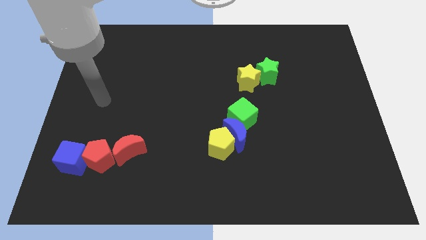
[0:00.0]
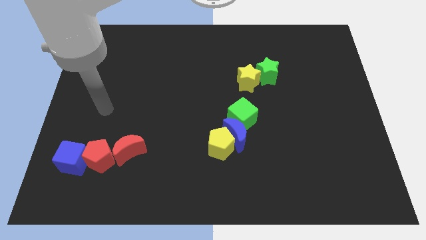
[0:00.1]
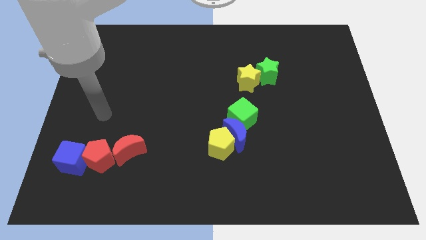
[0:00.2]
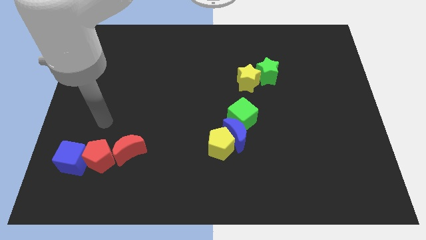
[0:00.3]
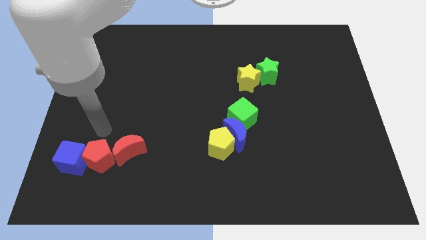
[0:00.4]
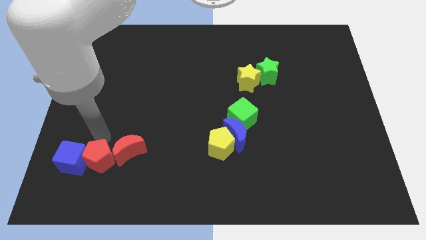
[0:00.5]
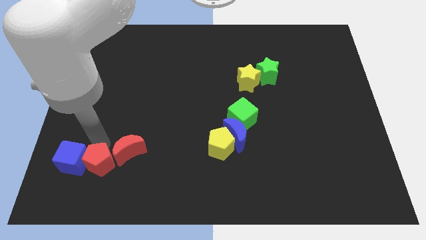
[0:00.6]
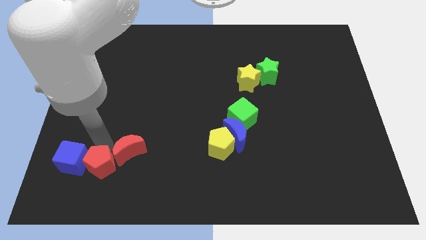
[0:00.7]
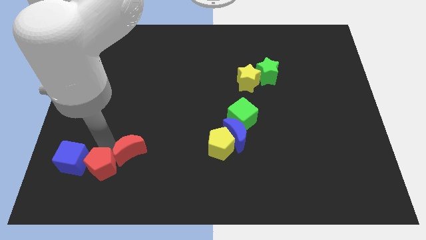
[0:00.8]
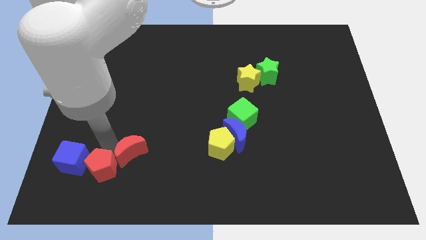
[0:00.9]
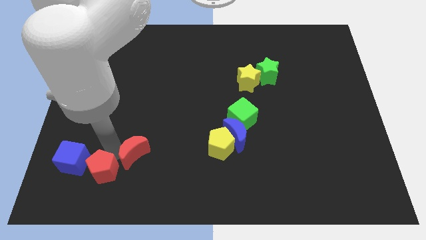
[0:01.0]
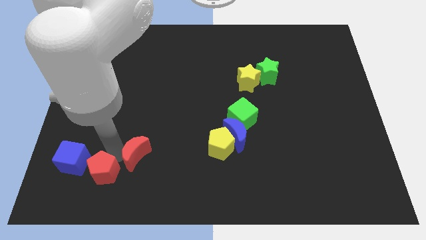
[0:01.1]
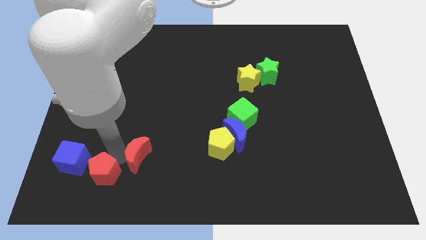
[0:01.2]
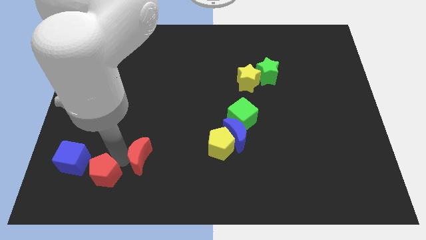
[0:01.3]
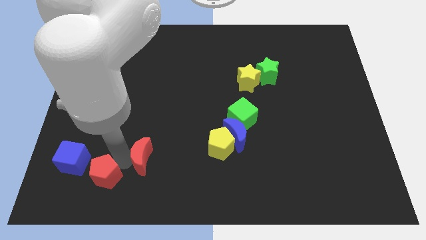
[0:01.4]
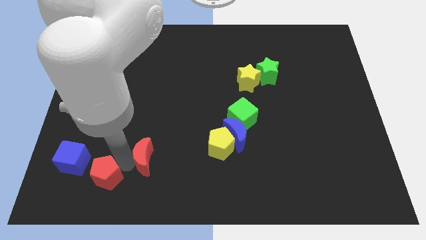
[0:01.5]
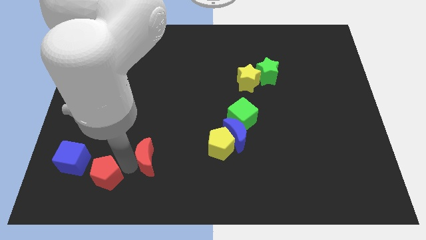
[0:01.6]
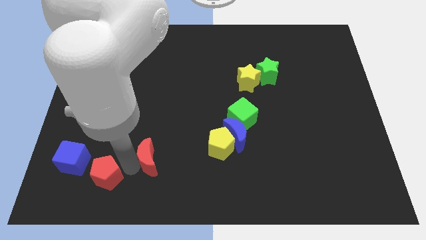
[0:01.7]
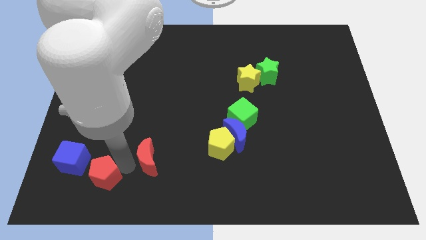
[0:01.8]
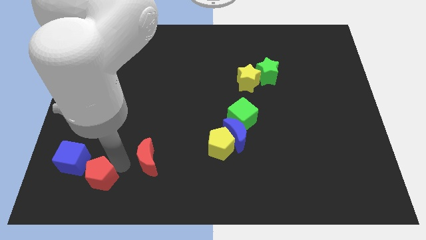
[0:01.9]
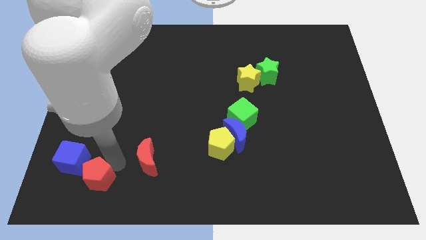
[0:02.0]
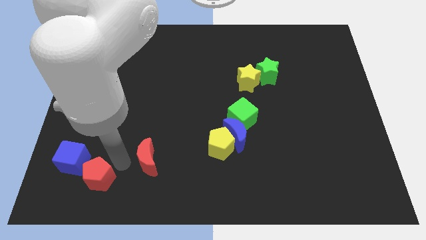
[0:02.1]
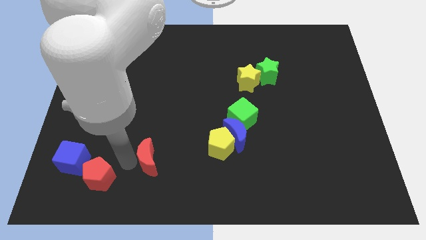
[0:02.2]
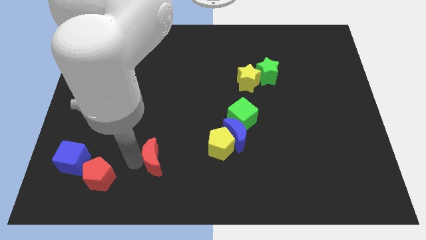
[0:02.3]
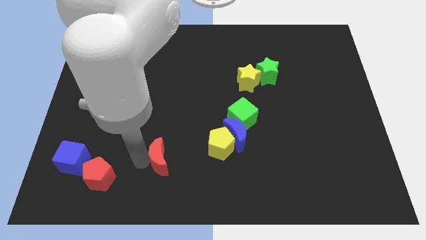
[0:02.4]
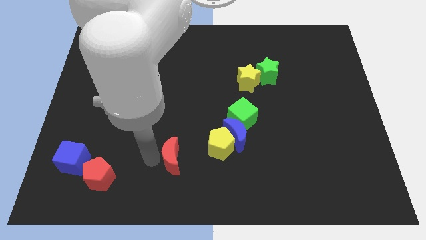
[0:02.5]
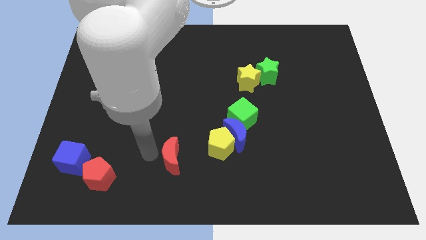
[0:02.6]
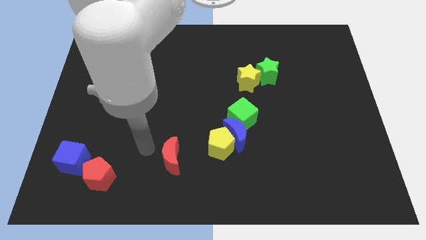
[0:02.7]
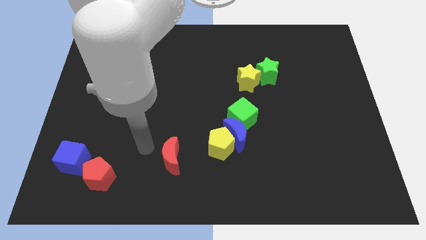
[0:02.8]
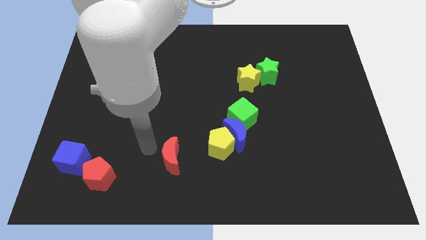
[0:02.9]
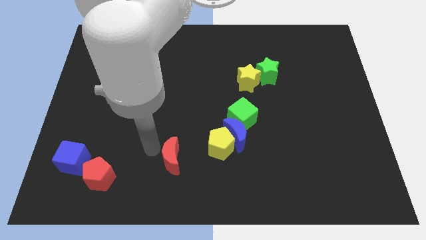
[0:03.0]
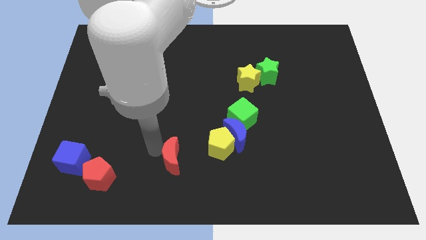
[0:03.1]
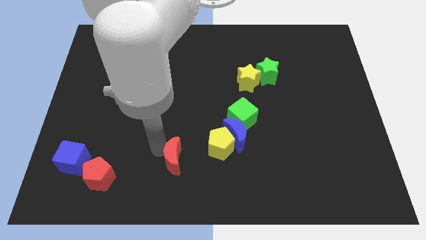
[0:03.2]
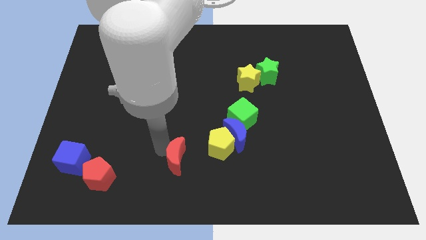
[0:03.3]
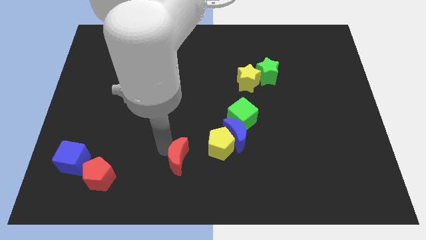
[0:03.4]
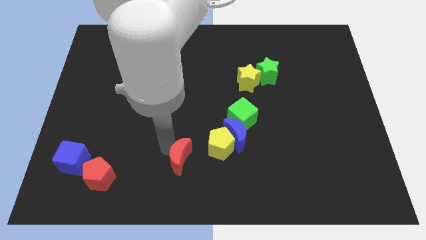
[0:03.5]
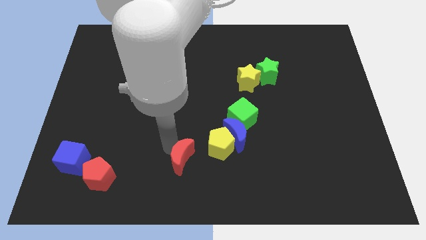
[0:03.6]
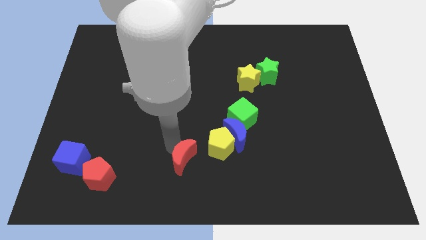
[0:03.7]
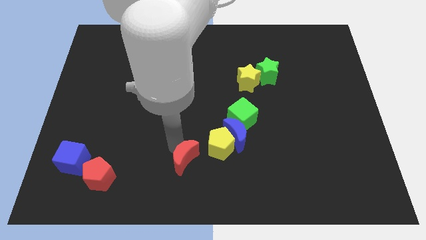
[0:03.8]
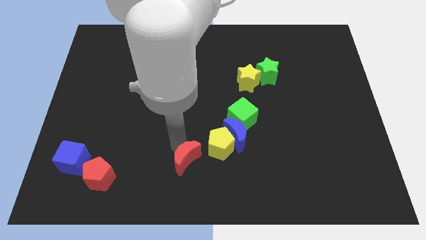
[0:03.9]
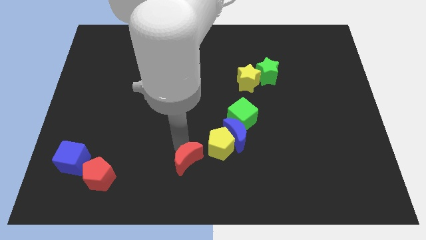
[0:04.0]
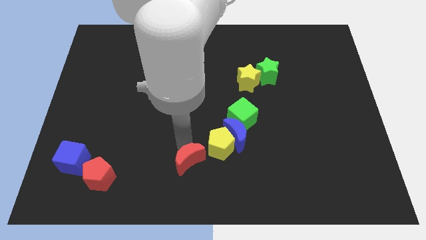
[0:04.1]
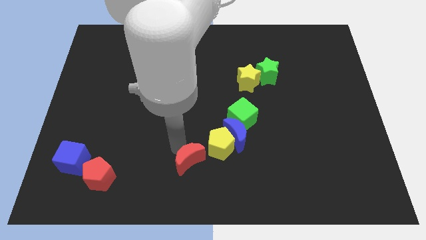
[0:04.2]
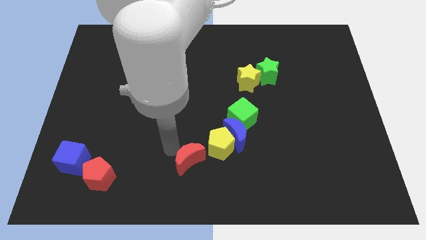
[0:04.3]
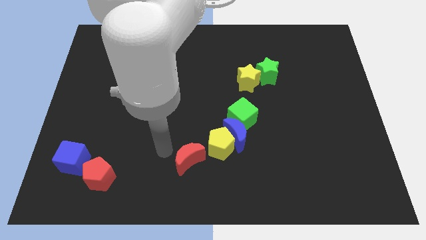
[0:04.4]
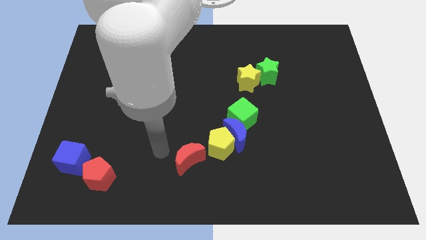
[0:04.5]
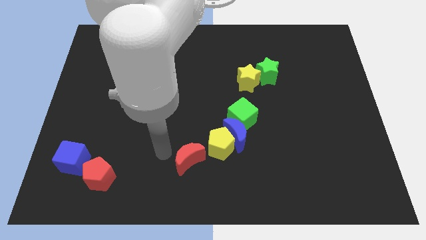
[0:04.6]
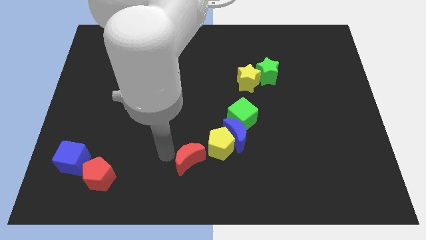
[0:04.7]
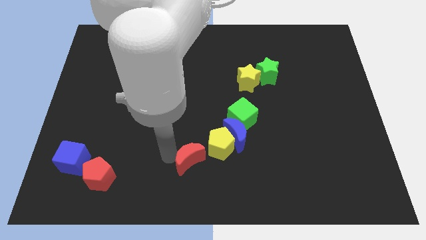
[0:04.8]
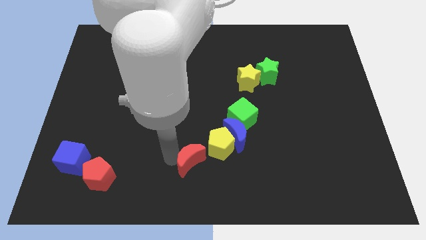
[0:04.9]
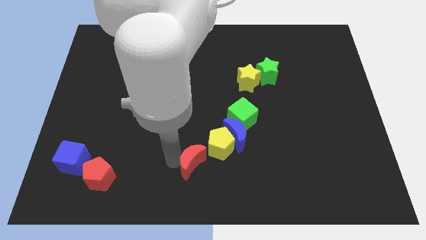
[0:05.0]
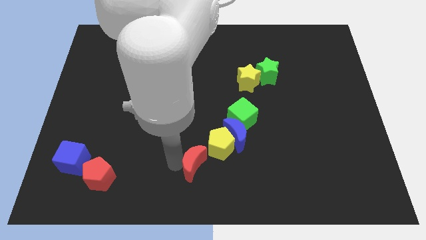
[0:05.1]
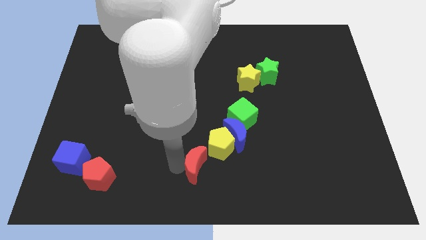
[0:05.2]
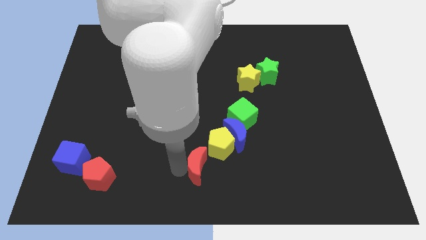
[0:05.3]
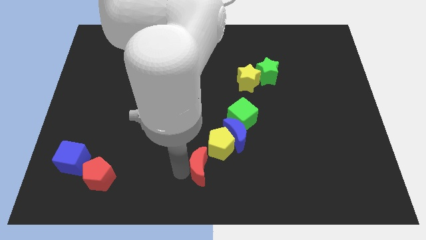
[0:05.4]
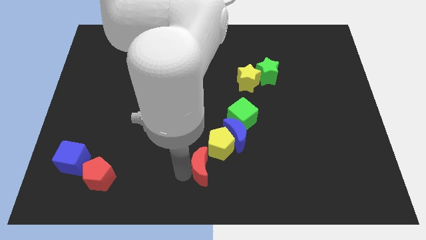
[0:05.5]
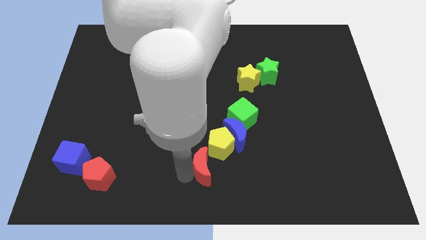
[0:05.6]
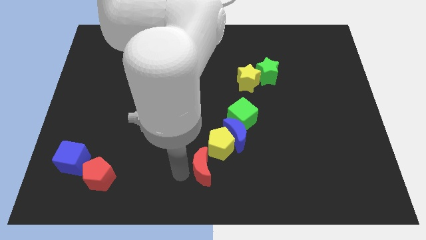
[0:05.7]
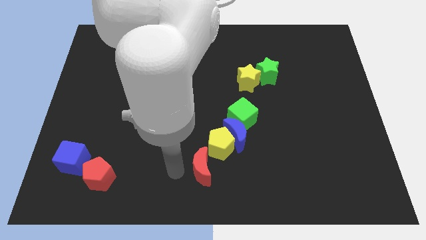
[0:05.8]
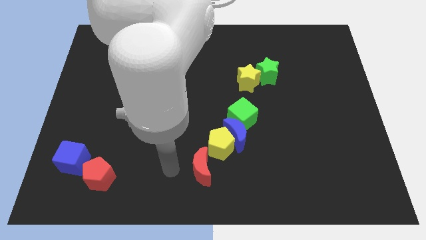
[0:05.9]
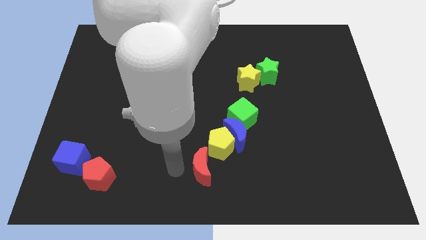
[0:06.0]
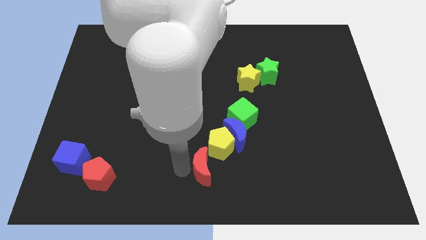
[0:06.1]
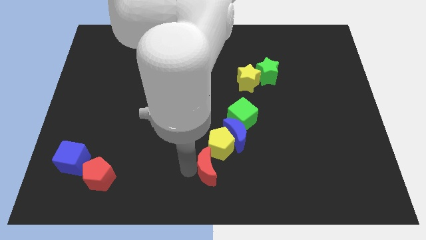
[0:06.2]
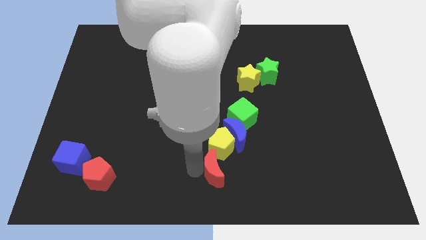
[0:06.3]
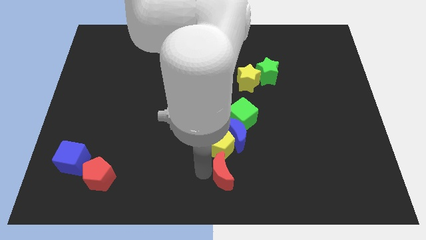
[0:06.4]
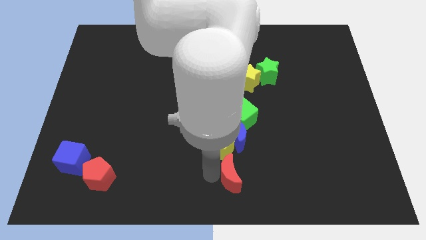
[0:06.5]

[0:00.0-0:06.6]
slide the red moon to the right

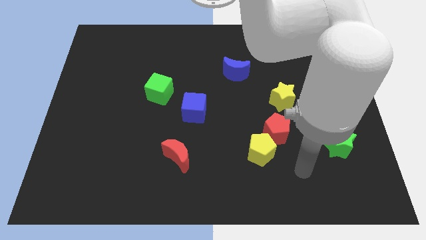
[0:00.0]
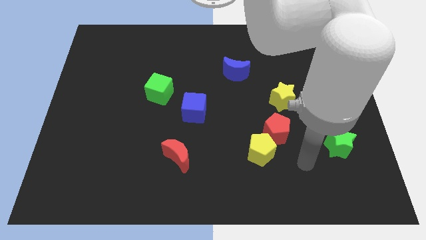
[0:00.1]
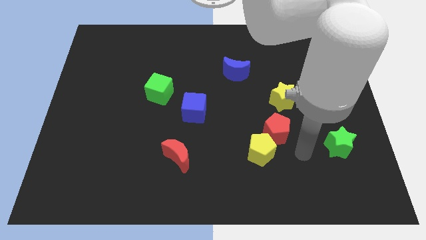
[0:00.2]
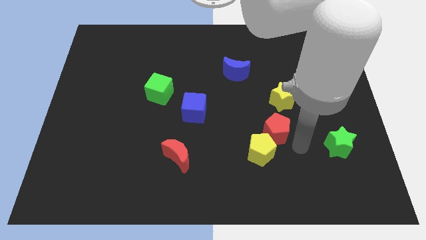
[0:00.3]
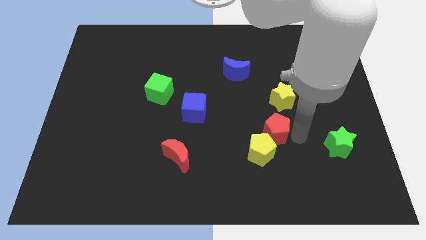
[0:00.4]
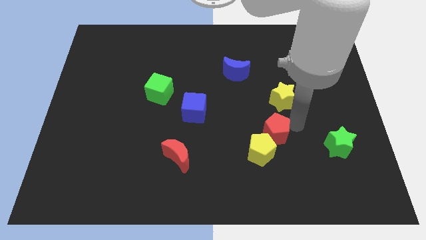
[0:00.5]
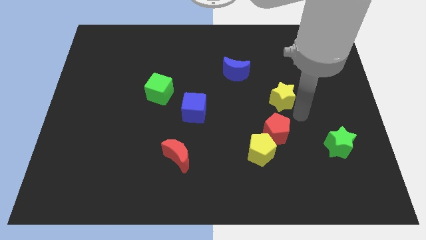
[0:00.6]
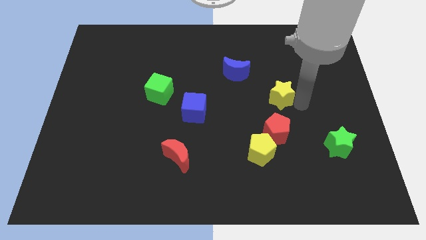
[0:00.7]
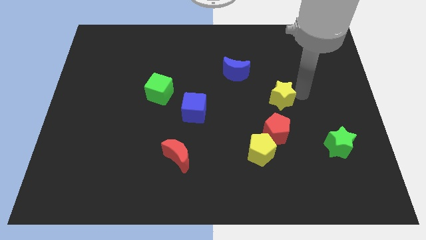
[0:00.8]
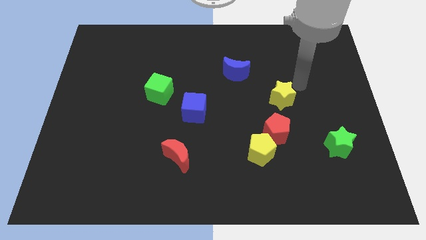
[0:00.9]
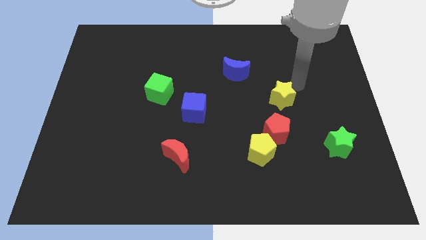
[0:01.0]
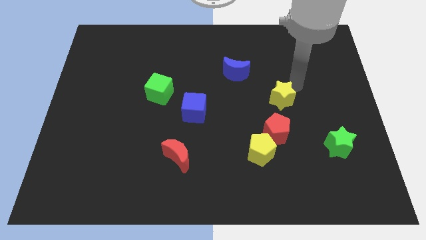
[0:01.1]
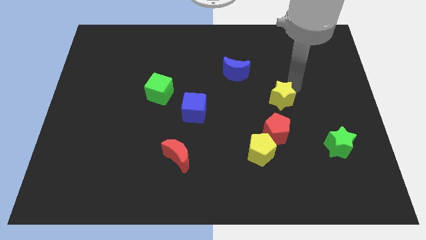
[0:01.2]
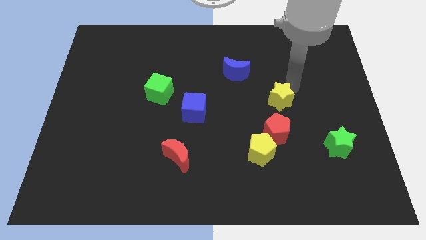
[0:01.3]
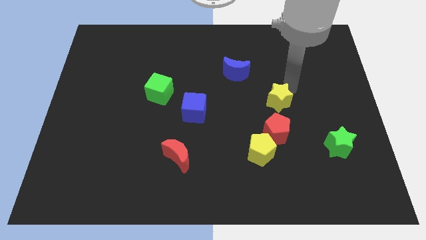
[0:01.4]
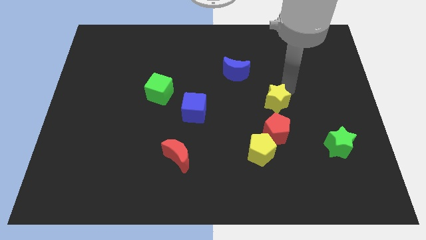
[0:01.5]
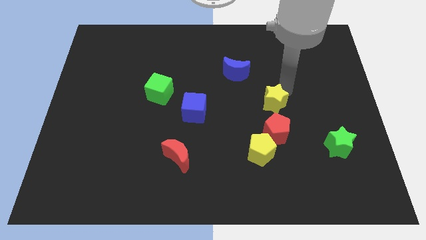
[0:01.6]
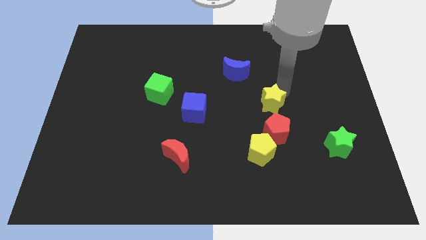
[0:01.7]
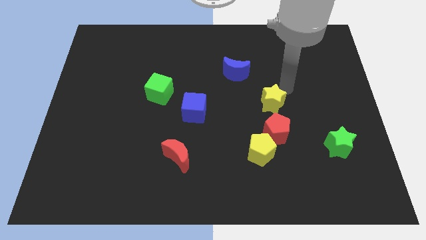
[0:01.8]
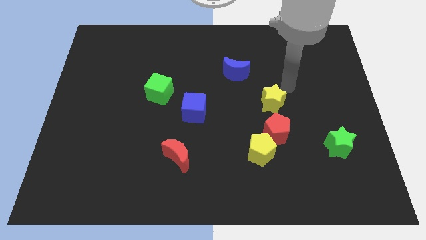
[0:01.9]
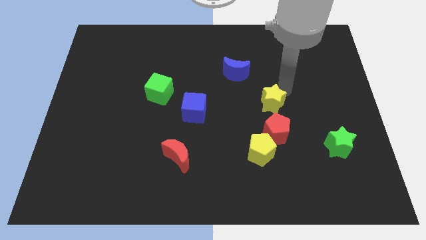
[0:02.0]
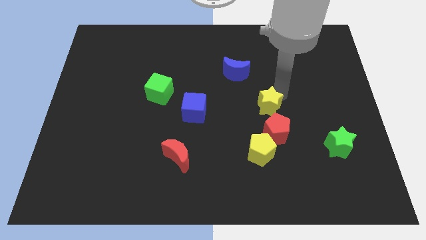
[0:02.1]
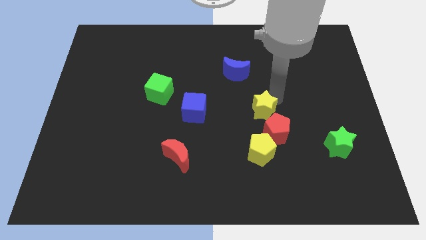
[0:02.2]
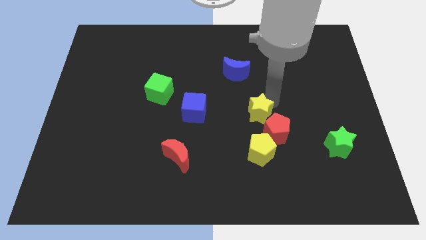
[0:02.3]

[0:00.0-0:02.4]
slightly push the yellow star downwards and to the left diagonally
